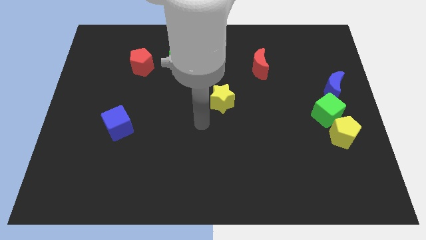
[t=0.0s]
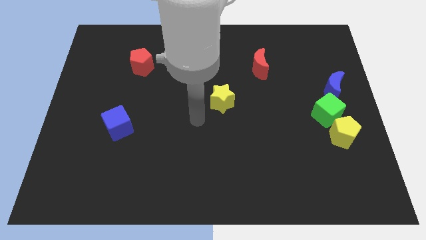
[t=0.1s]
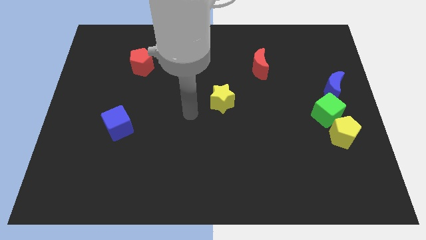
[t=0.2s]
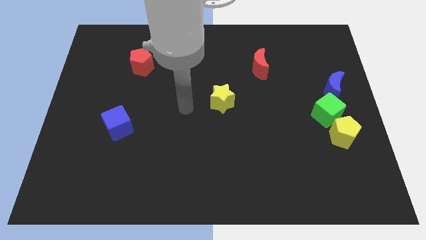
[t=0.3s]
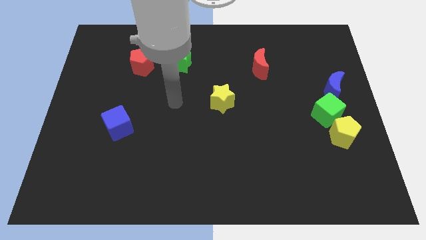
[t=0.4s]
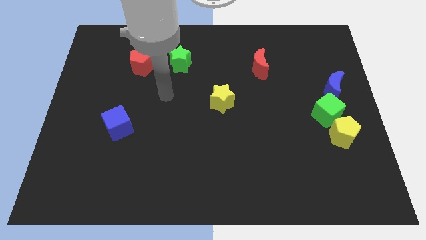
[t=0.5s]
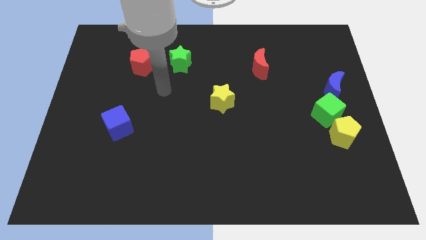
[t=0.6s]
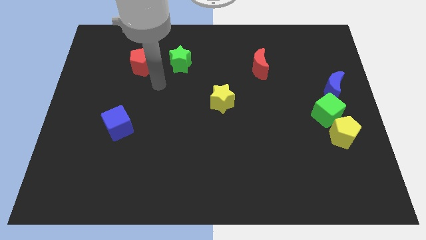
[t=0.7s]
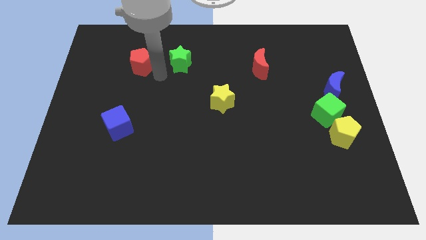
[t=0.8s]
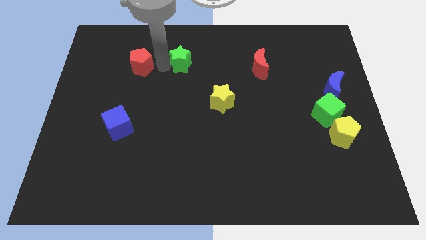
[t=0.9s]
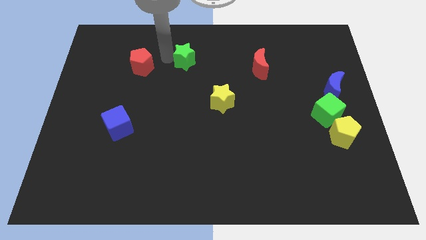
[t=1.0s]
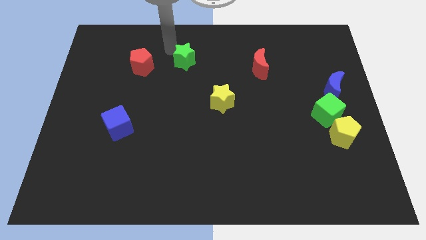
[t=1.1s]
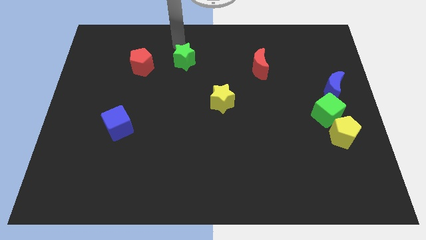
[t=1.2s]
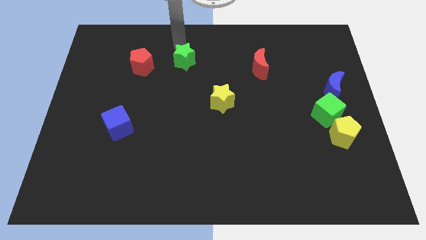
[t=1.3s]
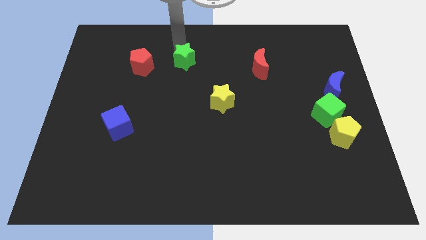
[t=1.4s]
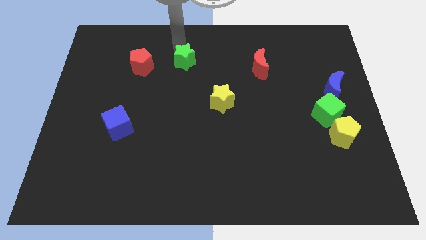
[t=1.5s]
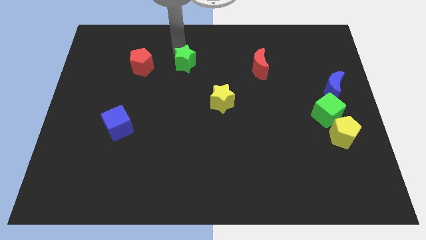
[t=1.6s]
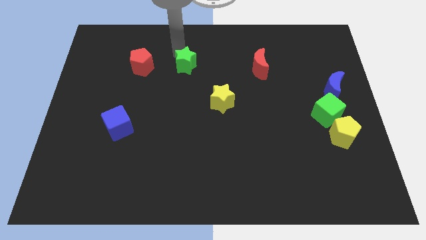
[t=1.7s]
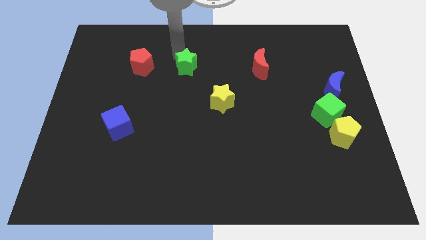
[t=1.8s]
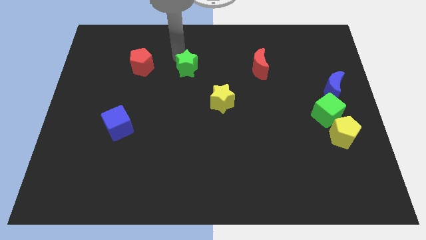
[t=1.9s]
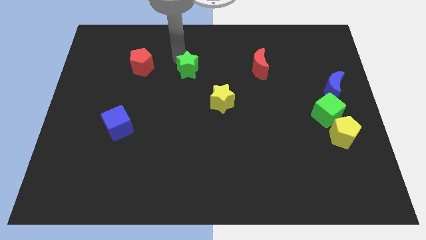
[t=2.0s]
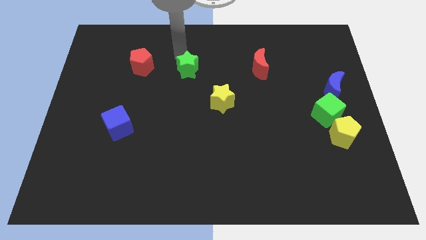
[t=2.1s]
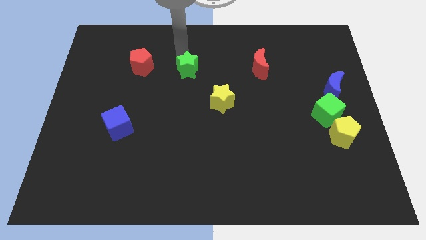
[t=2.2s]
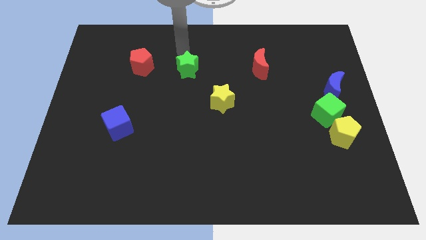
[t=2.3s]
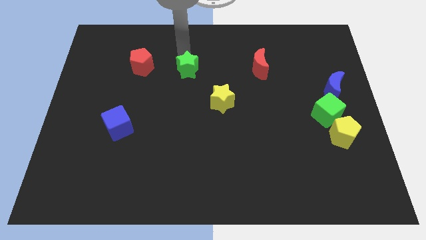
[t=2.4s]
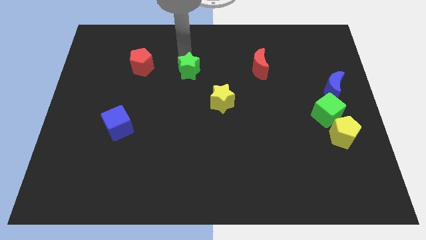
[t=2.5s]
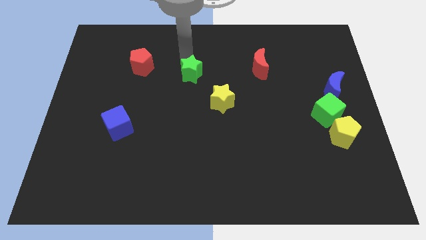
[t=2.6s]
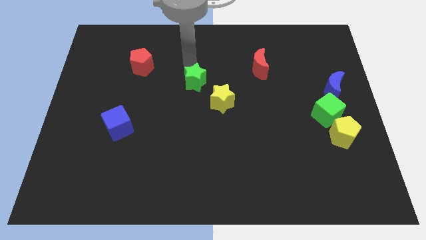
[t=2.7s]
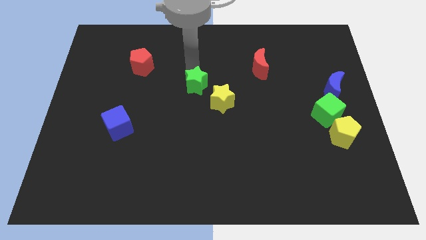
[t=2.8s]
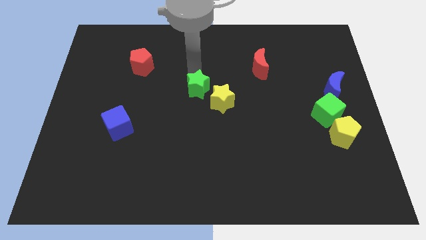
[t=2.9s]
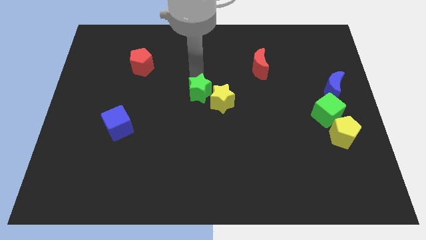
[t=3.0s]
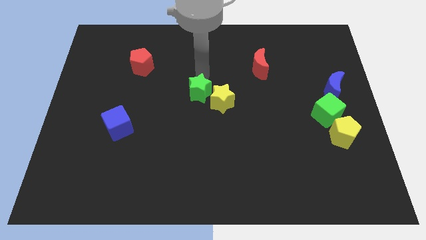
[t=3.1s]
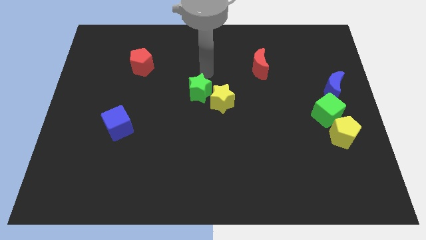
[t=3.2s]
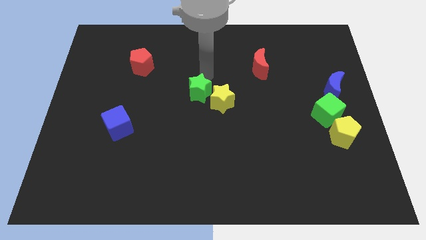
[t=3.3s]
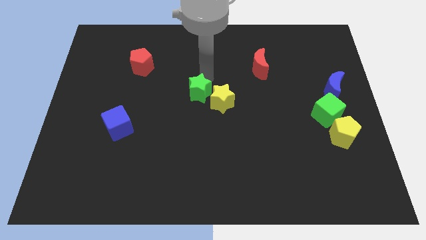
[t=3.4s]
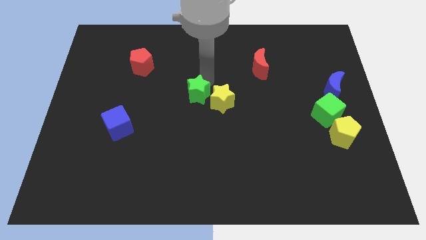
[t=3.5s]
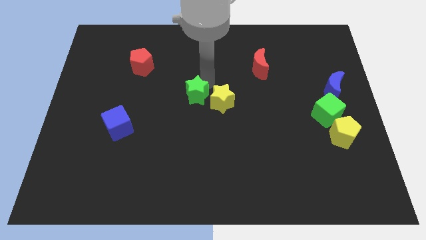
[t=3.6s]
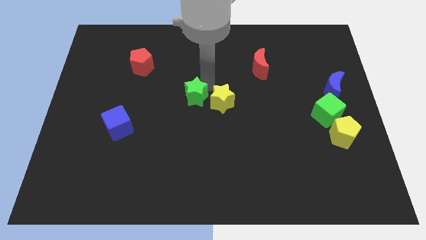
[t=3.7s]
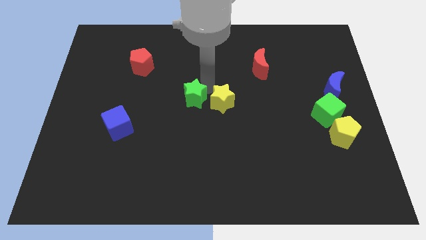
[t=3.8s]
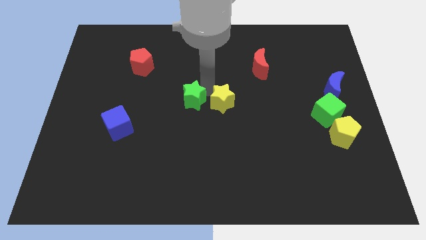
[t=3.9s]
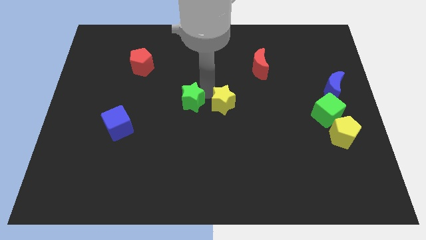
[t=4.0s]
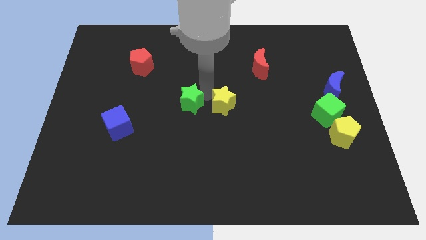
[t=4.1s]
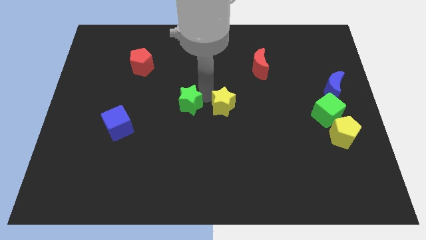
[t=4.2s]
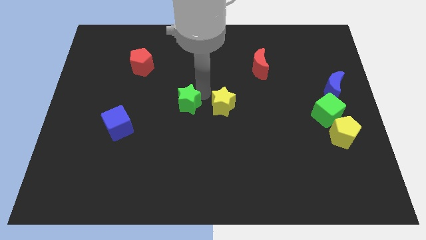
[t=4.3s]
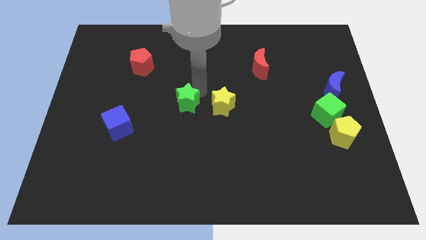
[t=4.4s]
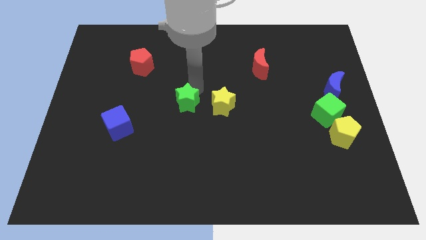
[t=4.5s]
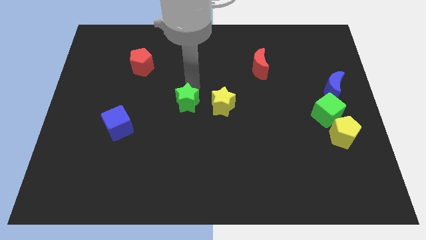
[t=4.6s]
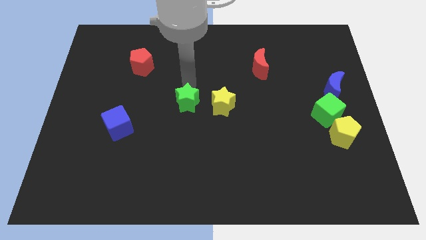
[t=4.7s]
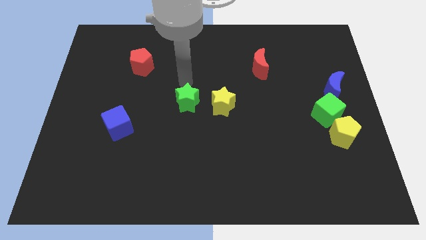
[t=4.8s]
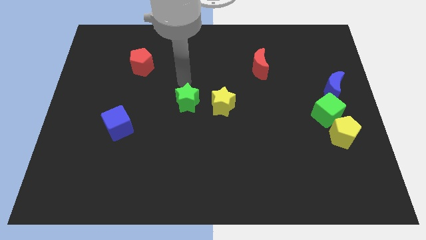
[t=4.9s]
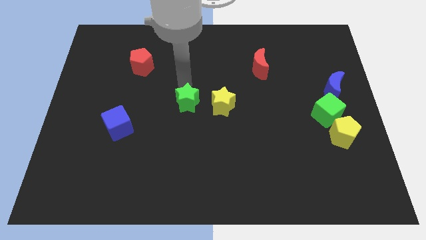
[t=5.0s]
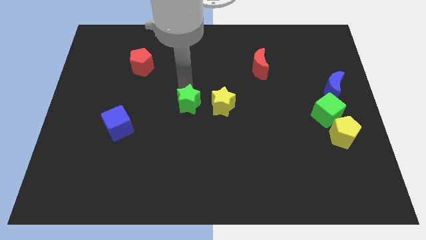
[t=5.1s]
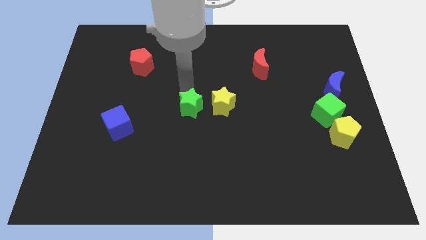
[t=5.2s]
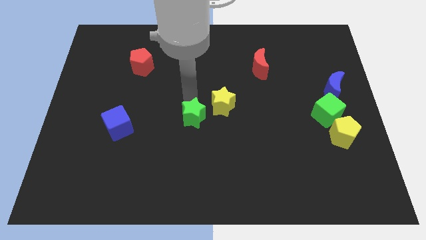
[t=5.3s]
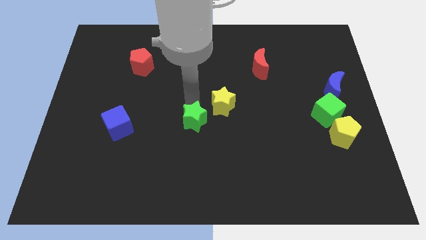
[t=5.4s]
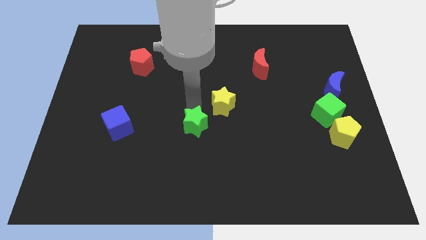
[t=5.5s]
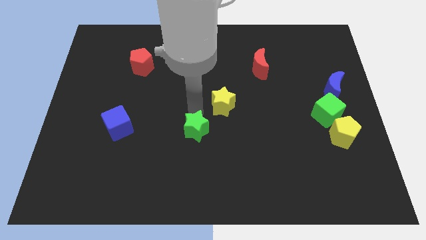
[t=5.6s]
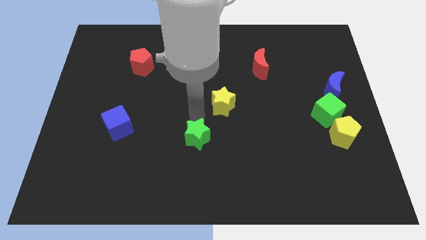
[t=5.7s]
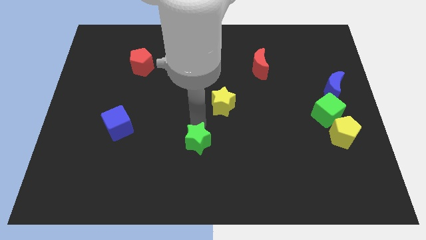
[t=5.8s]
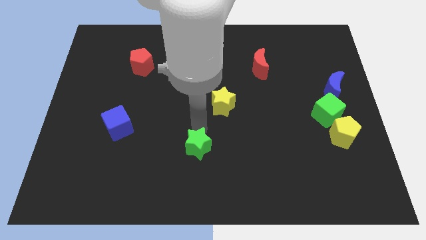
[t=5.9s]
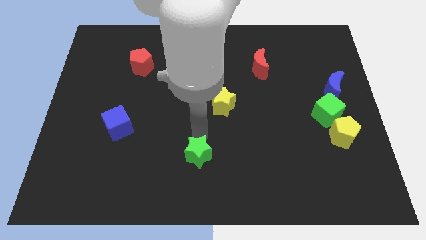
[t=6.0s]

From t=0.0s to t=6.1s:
slide the green star to the bottom
